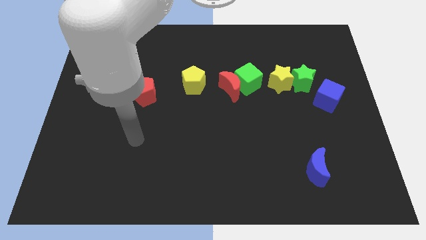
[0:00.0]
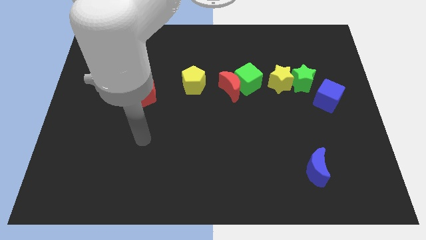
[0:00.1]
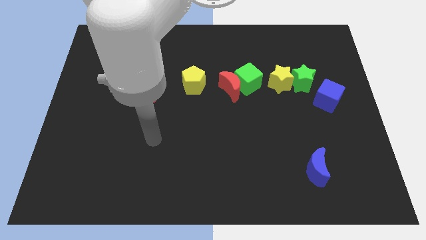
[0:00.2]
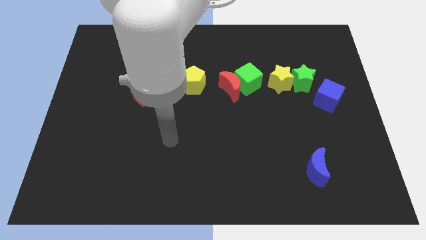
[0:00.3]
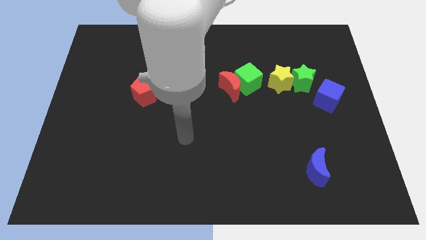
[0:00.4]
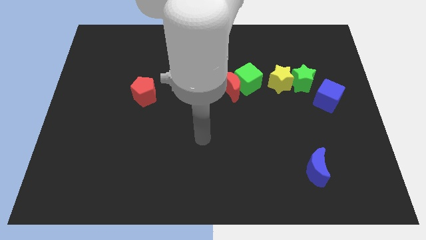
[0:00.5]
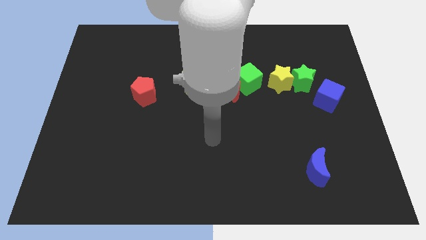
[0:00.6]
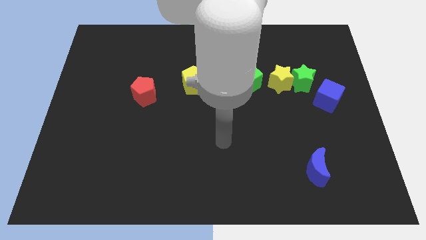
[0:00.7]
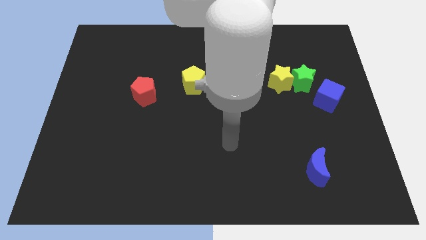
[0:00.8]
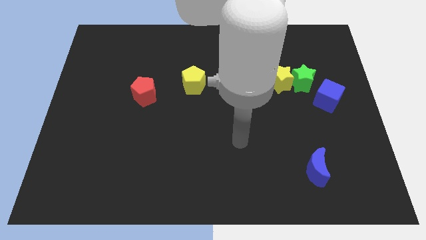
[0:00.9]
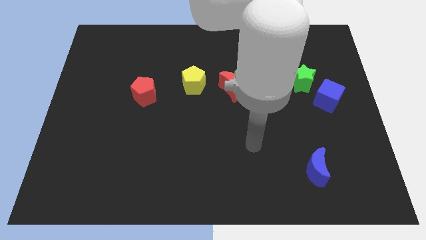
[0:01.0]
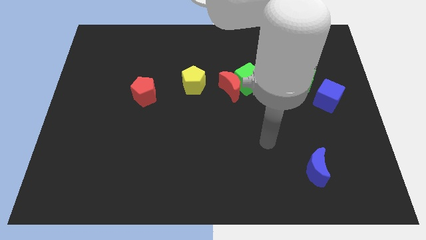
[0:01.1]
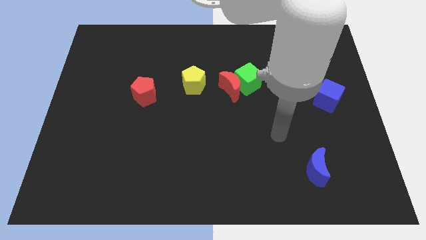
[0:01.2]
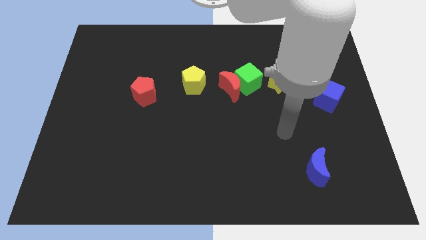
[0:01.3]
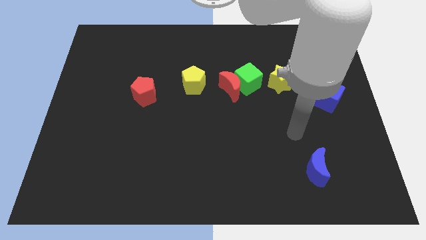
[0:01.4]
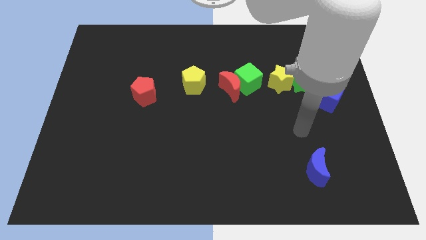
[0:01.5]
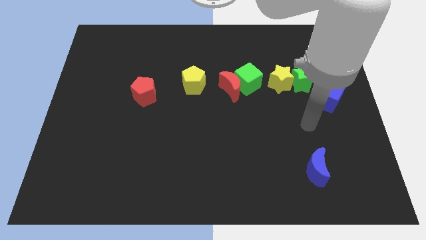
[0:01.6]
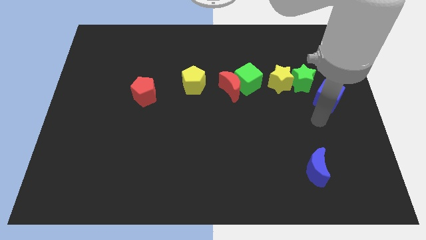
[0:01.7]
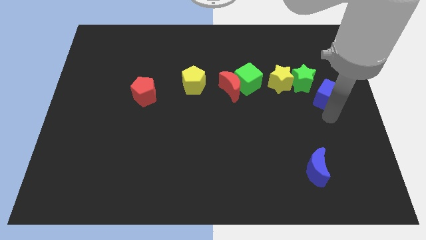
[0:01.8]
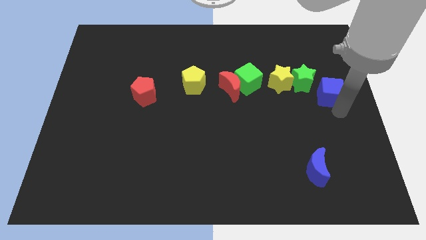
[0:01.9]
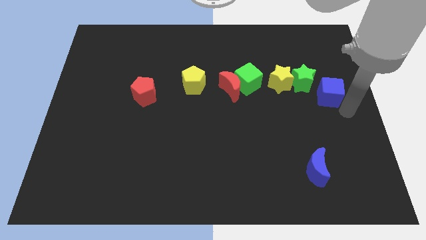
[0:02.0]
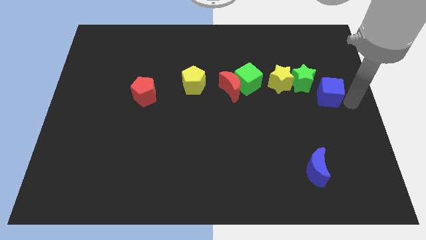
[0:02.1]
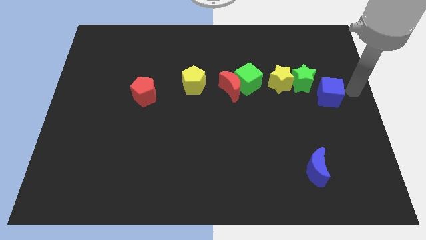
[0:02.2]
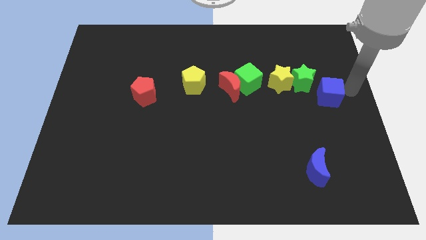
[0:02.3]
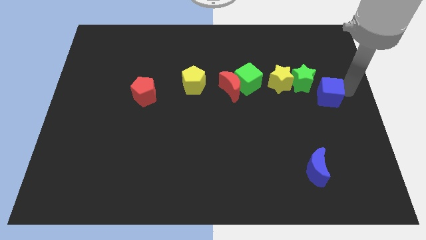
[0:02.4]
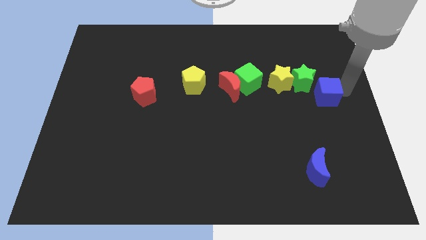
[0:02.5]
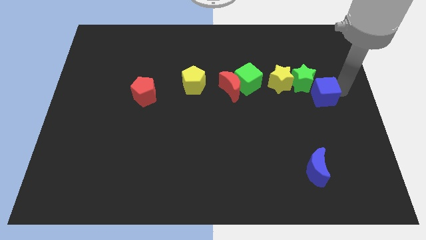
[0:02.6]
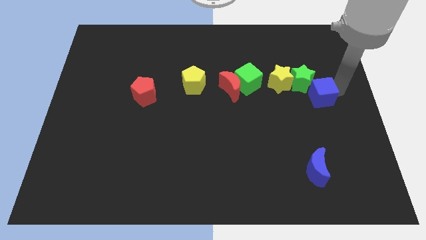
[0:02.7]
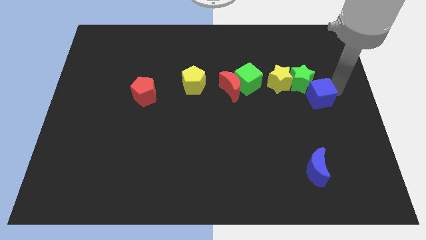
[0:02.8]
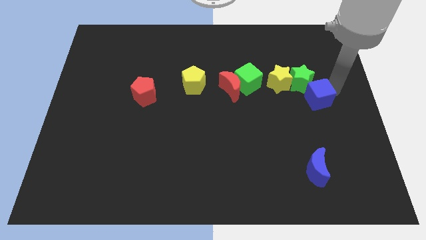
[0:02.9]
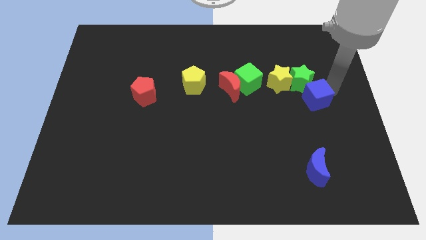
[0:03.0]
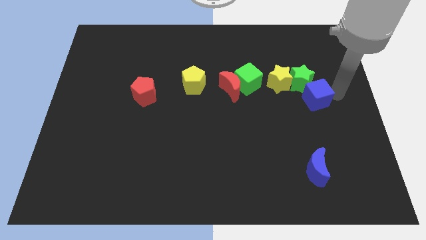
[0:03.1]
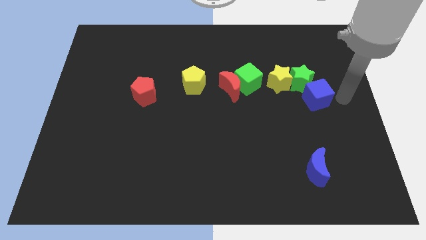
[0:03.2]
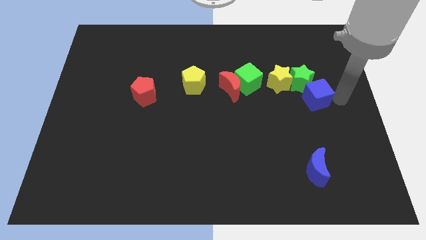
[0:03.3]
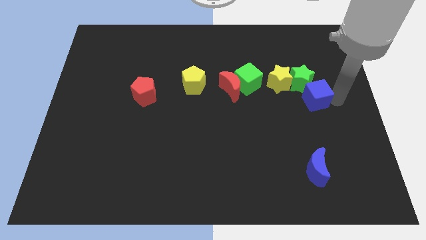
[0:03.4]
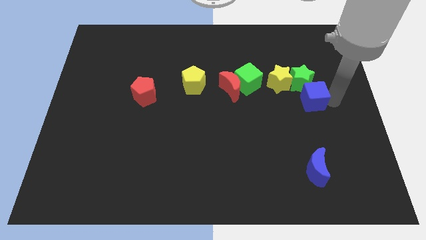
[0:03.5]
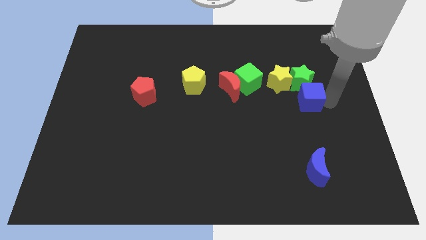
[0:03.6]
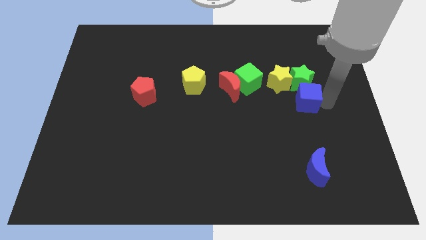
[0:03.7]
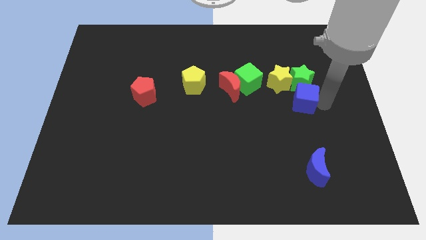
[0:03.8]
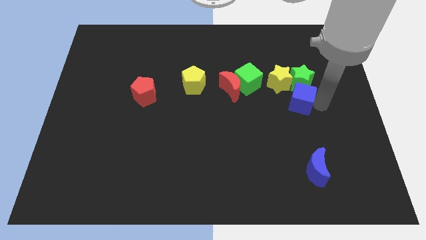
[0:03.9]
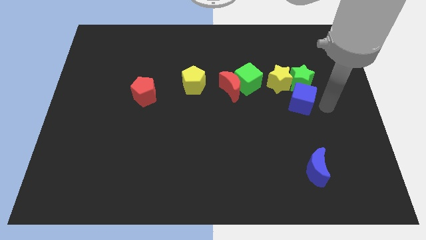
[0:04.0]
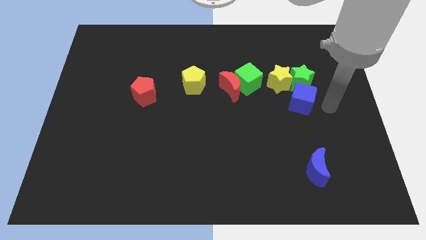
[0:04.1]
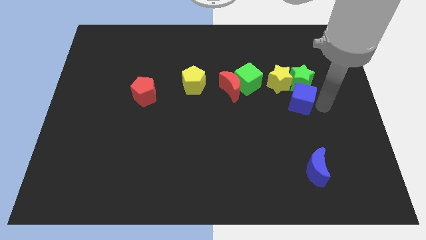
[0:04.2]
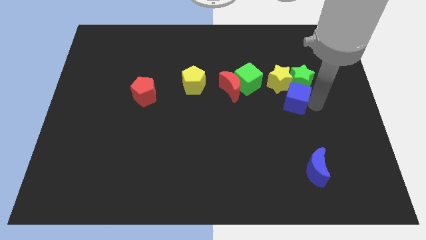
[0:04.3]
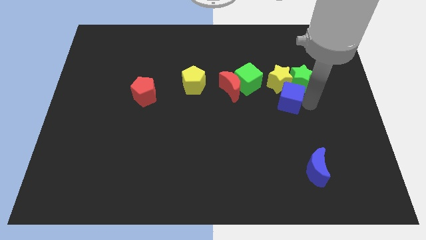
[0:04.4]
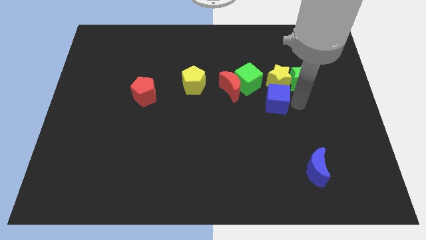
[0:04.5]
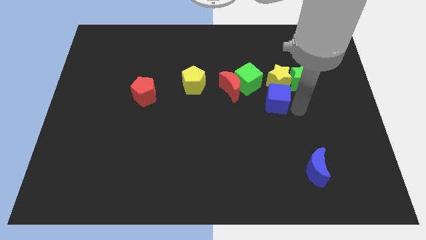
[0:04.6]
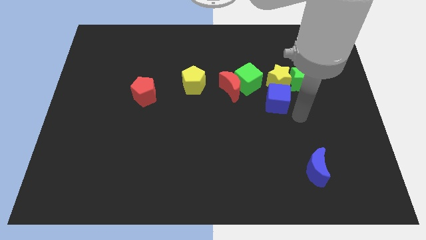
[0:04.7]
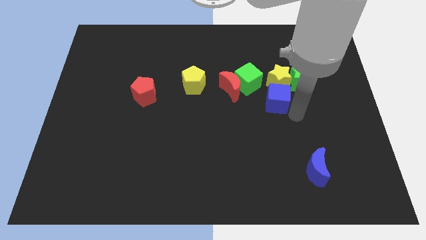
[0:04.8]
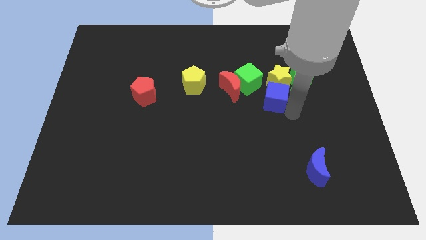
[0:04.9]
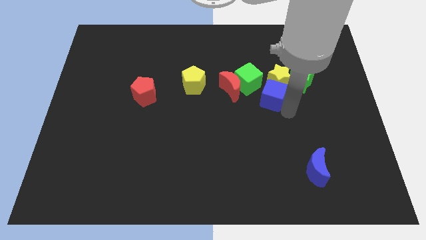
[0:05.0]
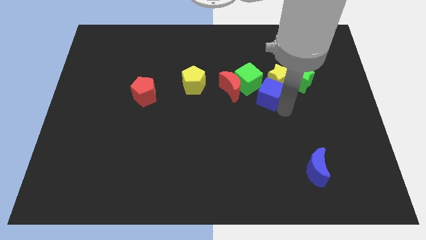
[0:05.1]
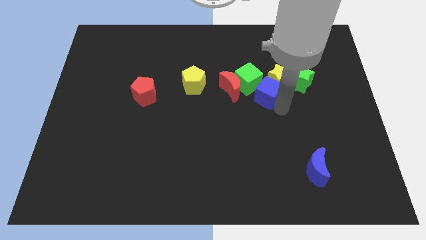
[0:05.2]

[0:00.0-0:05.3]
move the blue cube close to the green cube

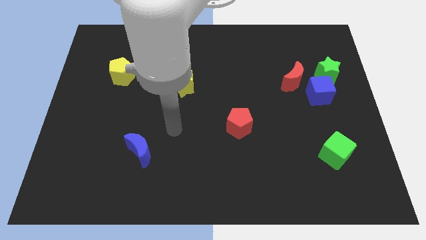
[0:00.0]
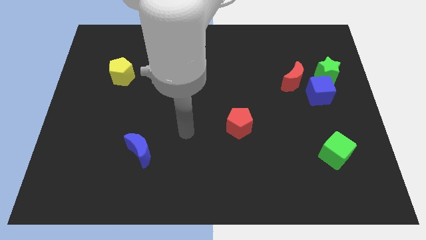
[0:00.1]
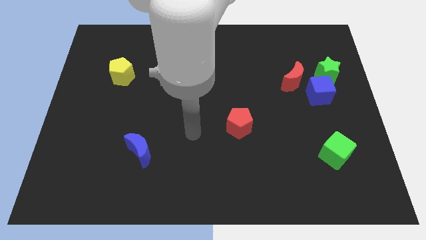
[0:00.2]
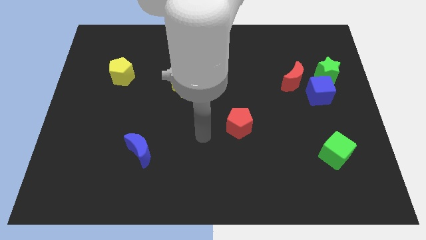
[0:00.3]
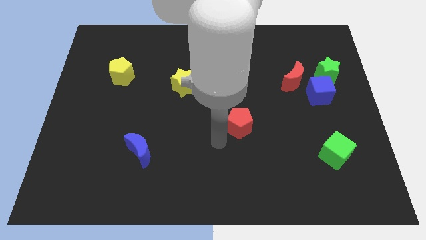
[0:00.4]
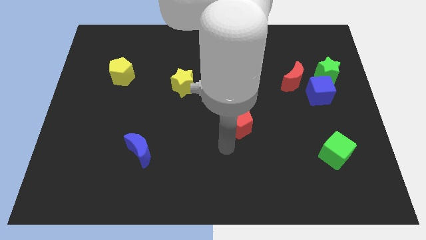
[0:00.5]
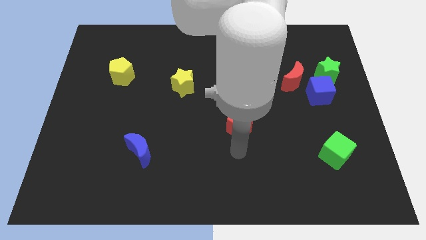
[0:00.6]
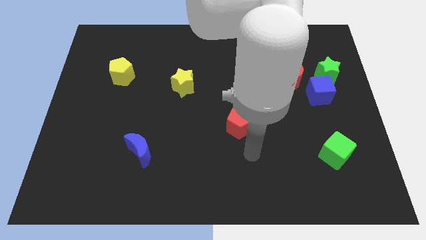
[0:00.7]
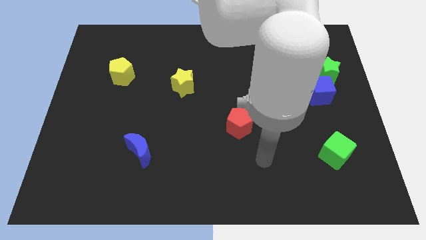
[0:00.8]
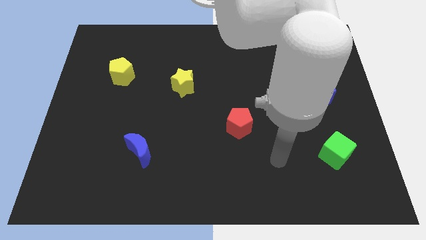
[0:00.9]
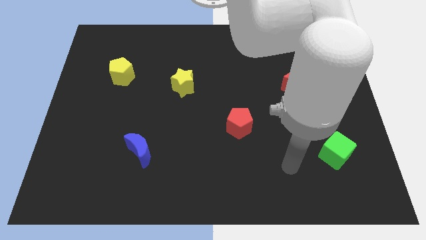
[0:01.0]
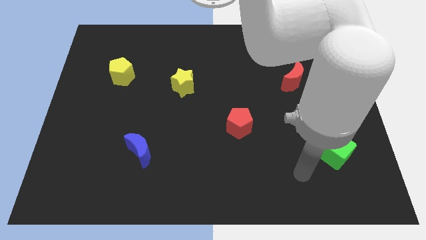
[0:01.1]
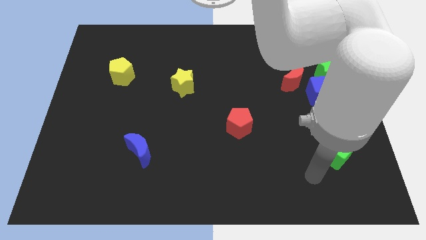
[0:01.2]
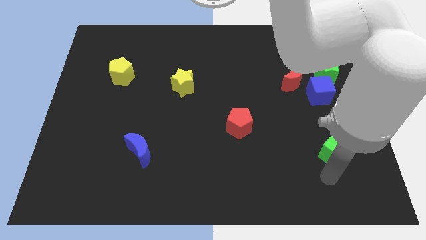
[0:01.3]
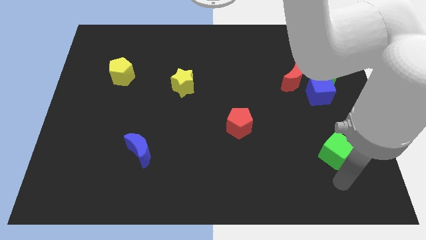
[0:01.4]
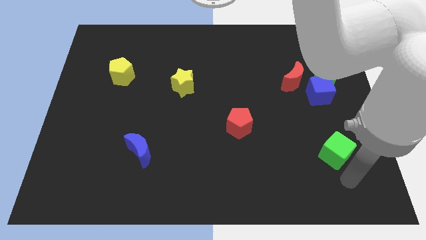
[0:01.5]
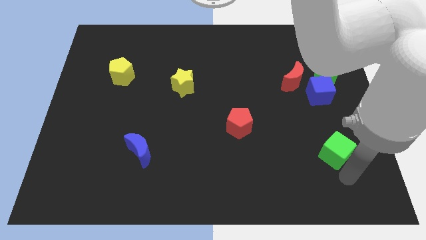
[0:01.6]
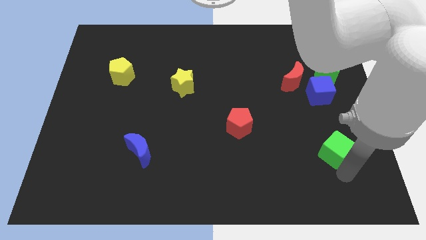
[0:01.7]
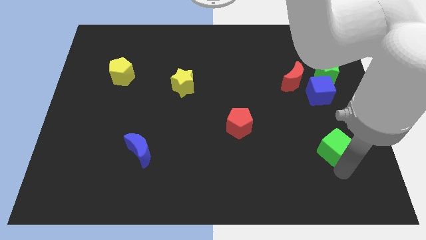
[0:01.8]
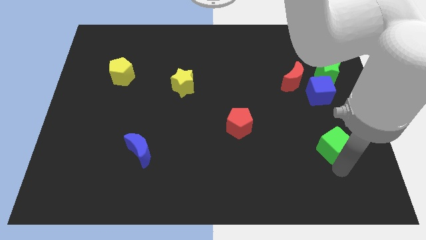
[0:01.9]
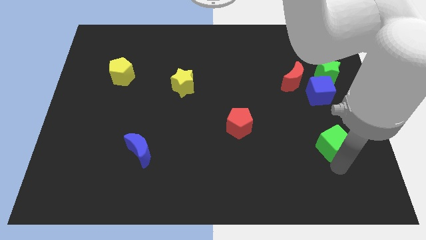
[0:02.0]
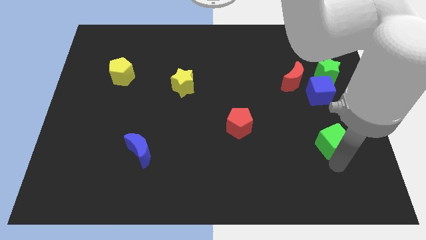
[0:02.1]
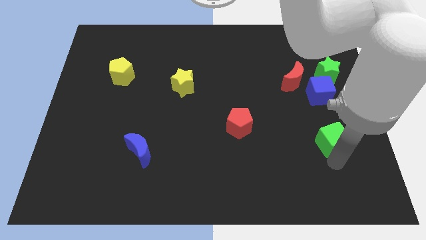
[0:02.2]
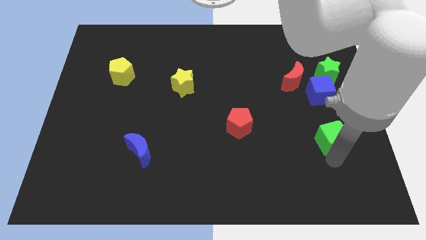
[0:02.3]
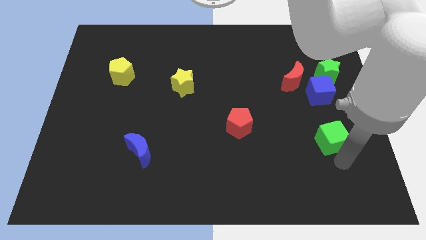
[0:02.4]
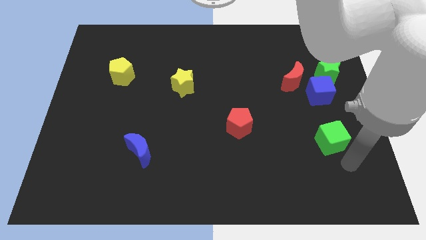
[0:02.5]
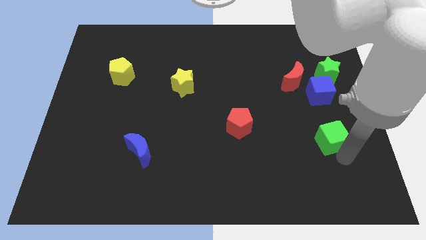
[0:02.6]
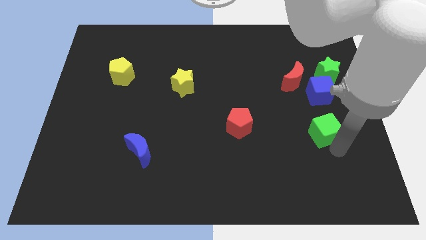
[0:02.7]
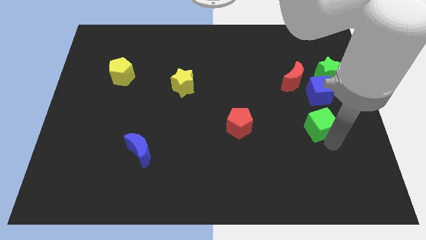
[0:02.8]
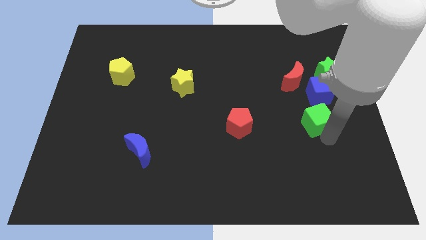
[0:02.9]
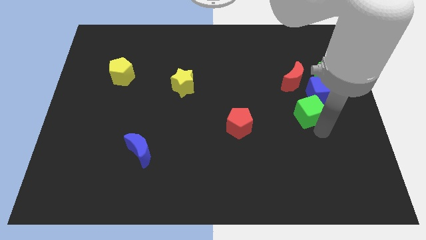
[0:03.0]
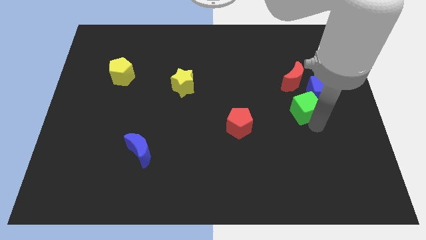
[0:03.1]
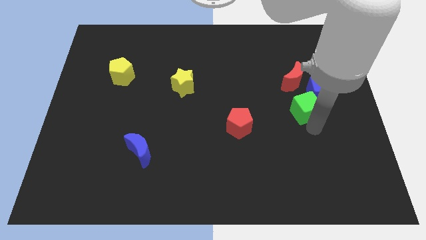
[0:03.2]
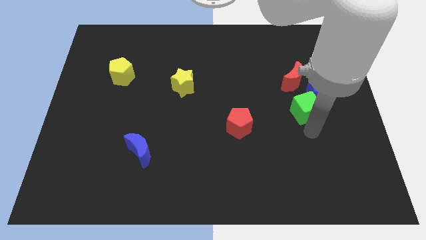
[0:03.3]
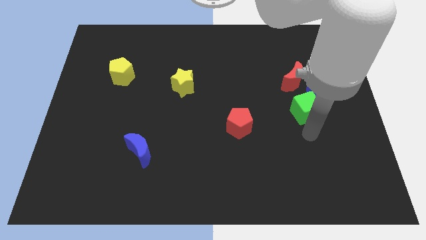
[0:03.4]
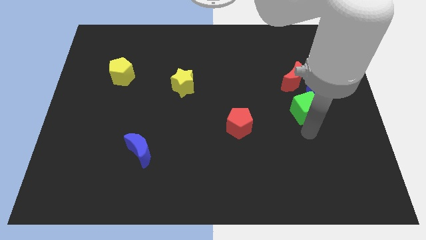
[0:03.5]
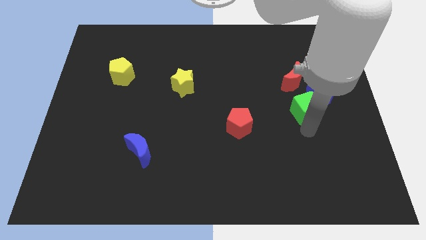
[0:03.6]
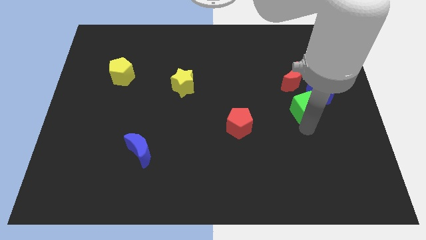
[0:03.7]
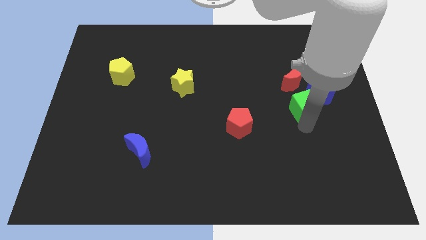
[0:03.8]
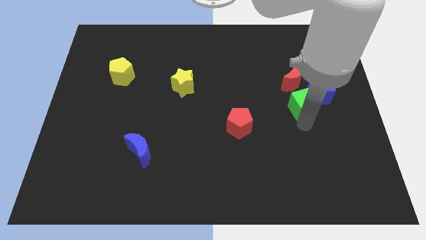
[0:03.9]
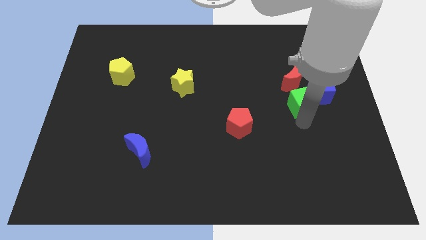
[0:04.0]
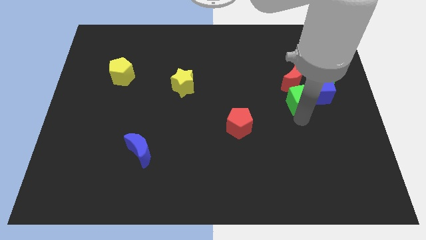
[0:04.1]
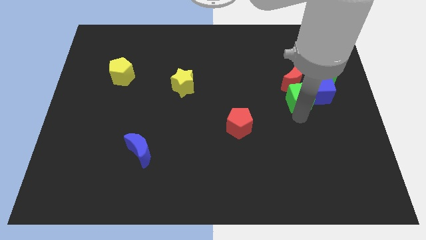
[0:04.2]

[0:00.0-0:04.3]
push the green cube towards the red moon
